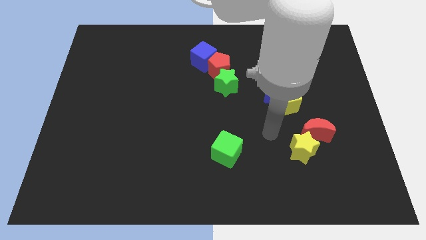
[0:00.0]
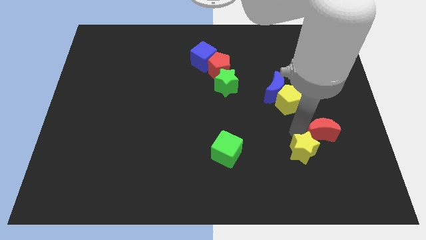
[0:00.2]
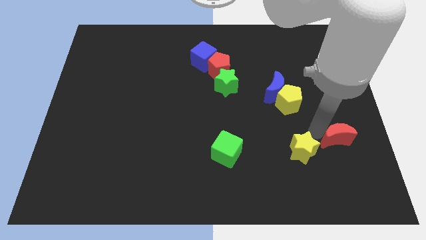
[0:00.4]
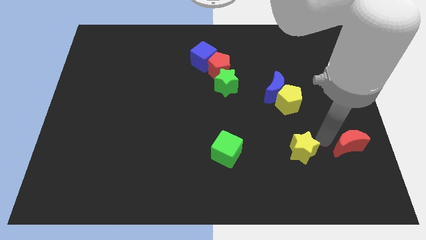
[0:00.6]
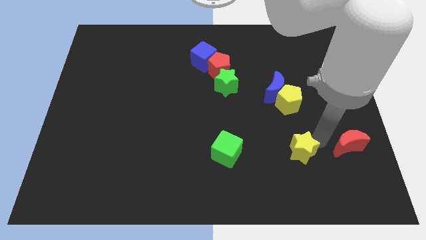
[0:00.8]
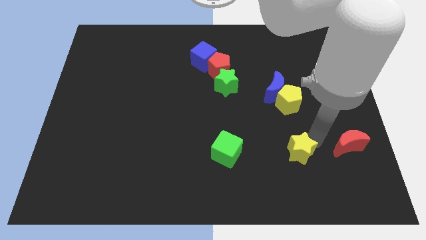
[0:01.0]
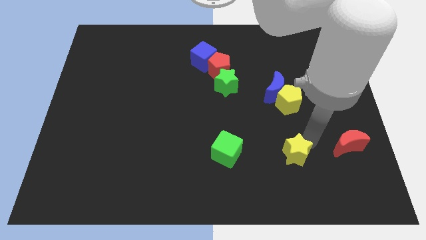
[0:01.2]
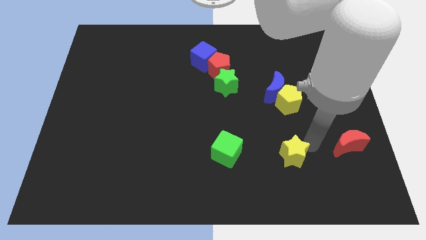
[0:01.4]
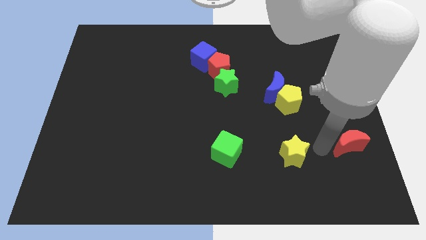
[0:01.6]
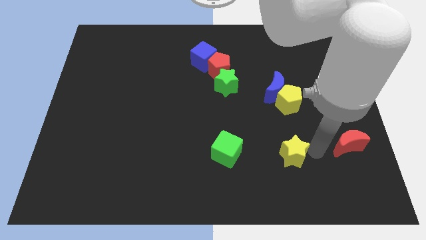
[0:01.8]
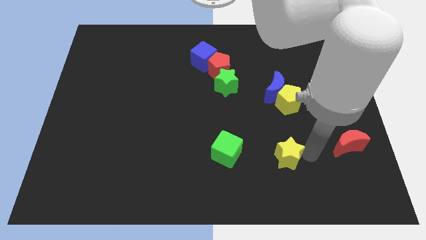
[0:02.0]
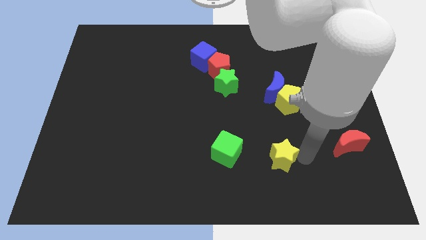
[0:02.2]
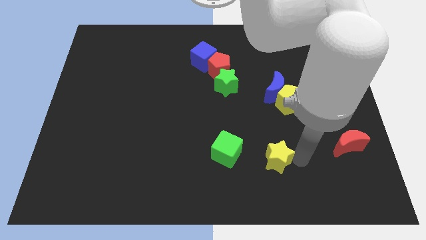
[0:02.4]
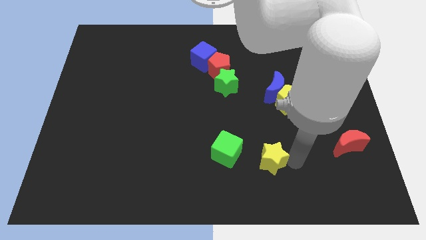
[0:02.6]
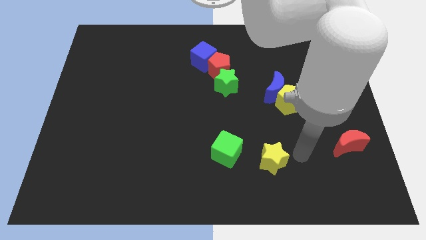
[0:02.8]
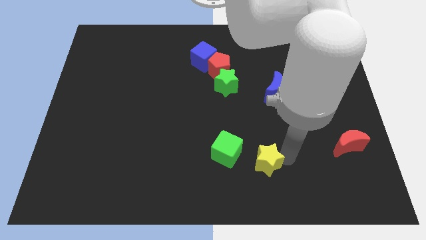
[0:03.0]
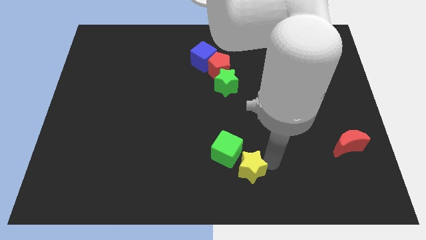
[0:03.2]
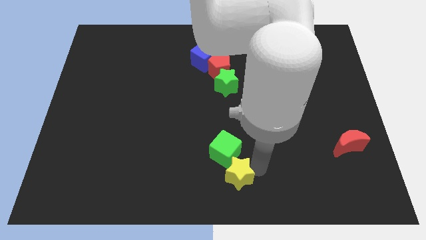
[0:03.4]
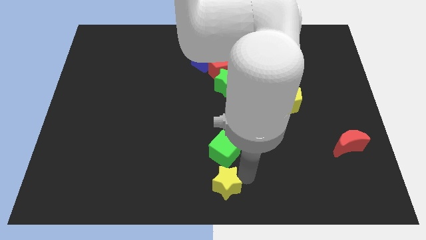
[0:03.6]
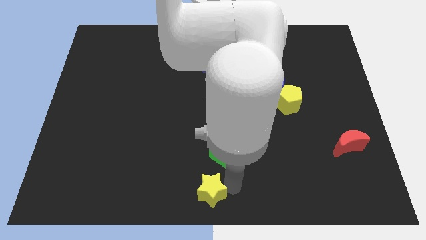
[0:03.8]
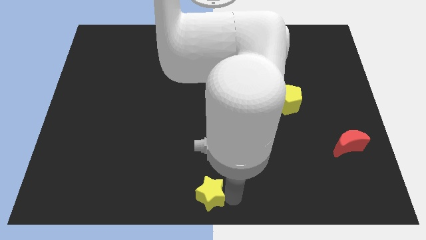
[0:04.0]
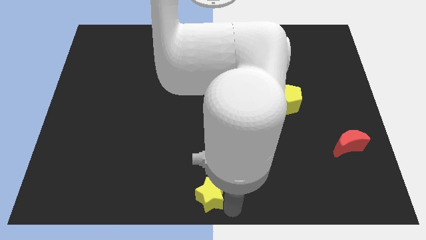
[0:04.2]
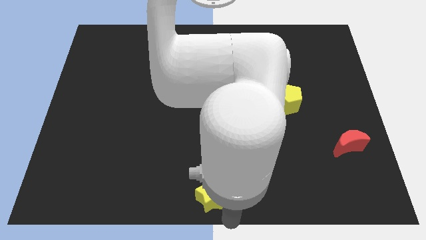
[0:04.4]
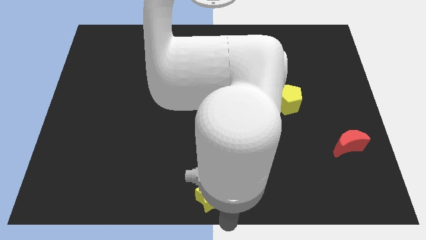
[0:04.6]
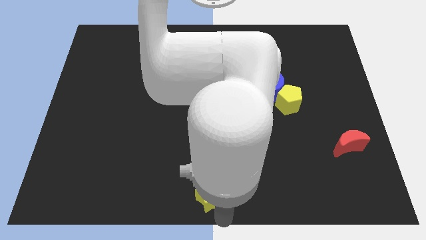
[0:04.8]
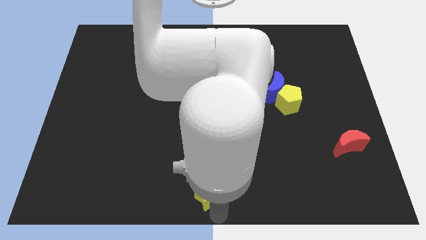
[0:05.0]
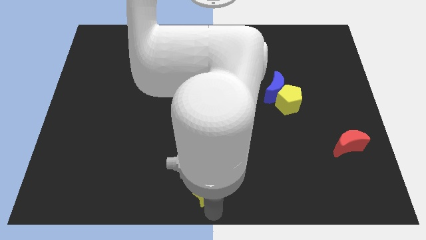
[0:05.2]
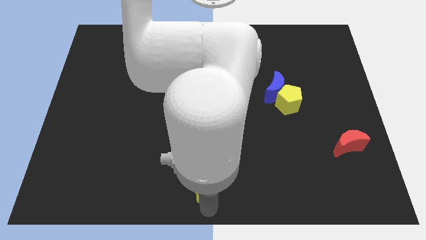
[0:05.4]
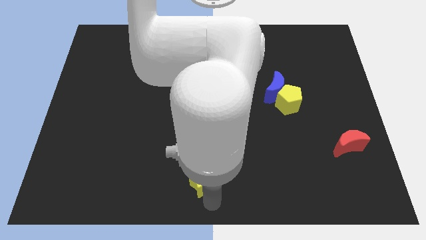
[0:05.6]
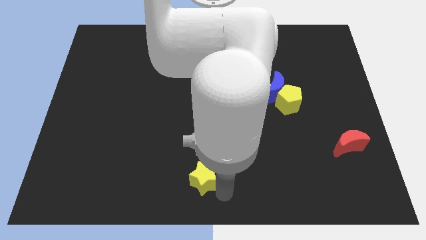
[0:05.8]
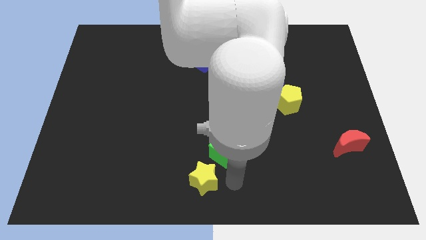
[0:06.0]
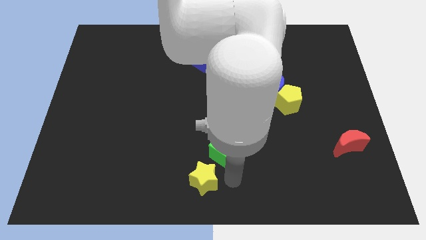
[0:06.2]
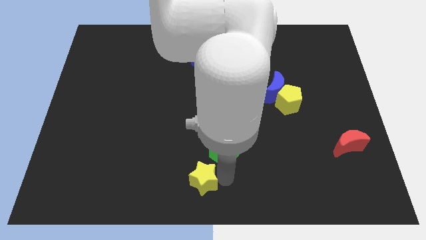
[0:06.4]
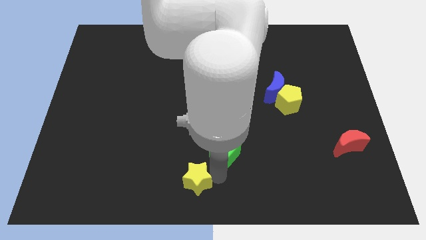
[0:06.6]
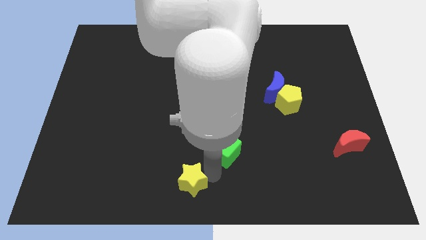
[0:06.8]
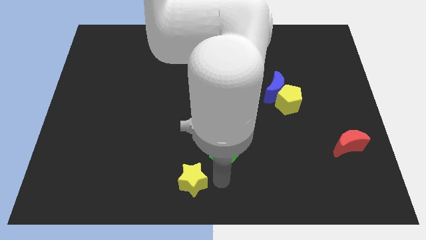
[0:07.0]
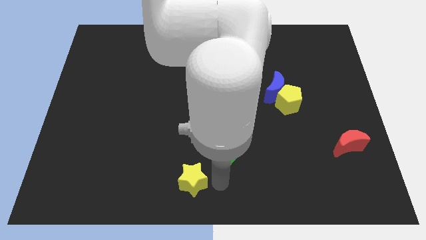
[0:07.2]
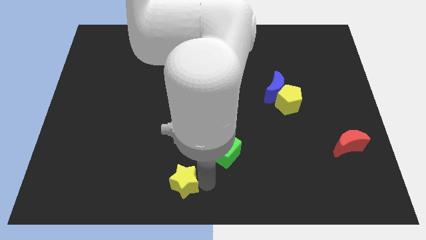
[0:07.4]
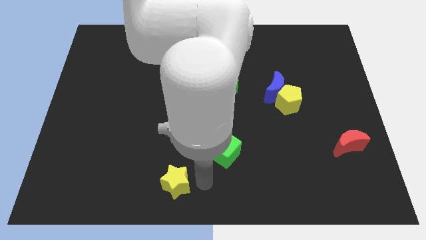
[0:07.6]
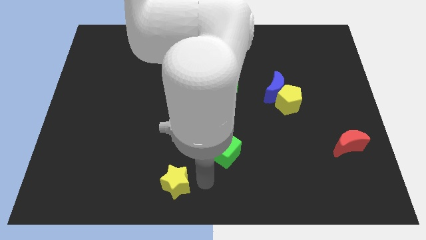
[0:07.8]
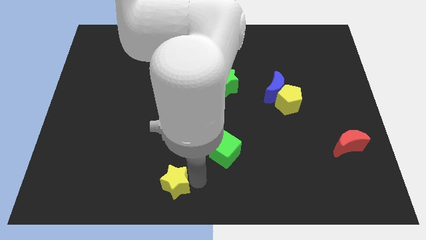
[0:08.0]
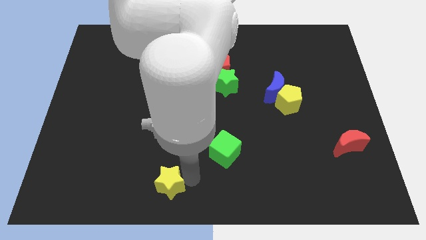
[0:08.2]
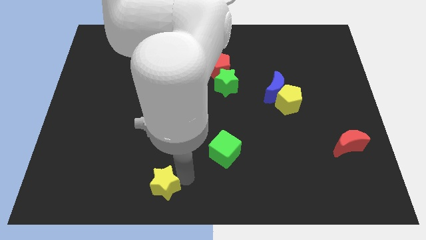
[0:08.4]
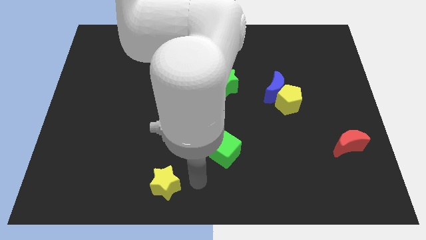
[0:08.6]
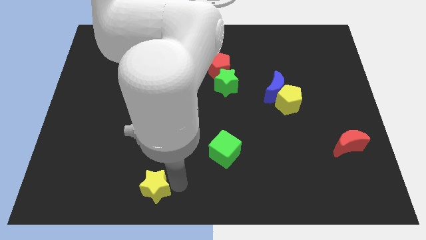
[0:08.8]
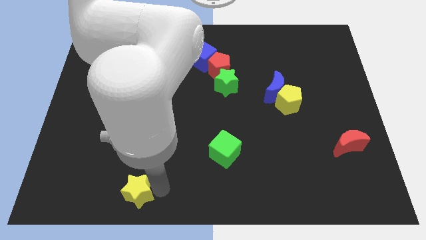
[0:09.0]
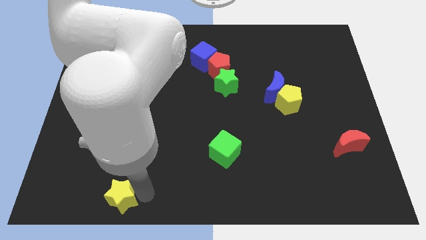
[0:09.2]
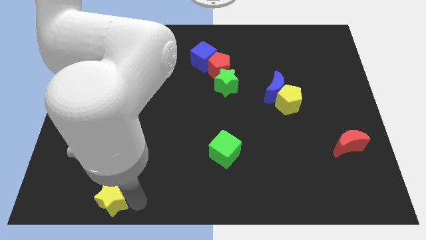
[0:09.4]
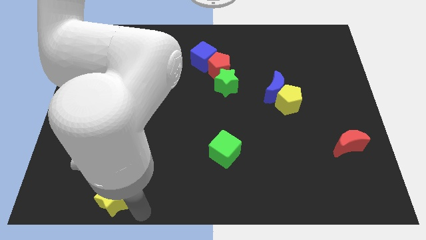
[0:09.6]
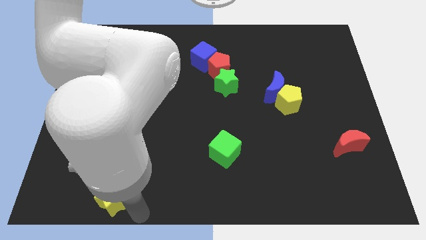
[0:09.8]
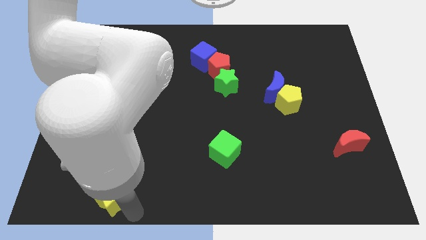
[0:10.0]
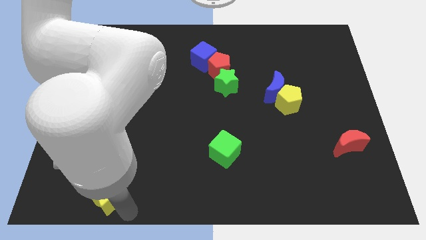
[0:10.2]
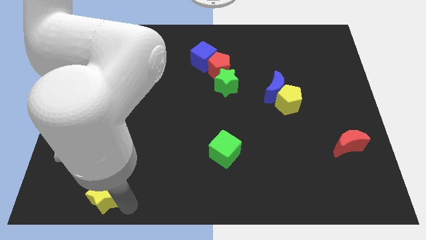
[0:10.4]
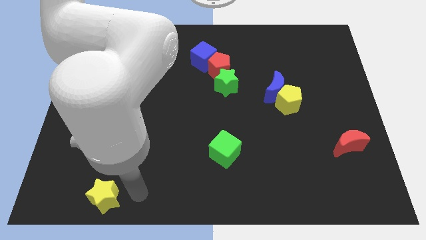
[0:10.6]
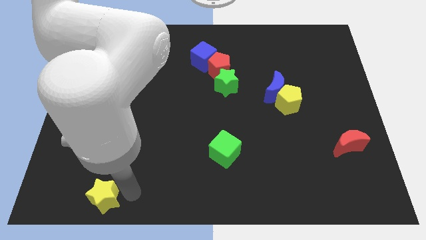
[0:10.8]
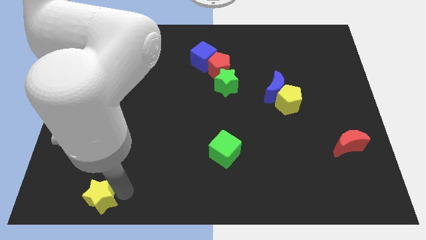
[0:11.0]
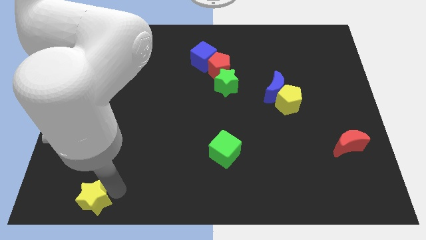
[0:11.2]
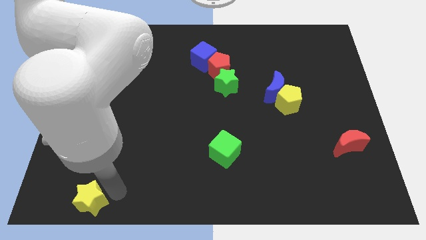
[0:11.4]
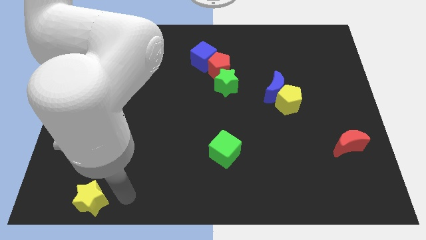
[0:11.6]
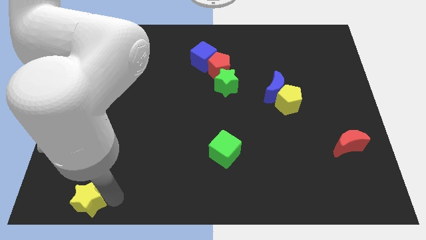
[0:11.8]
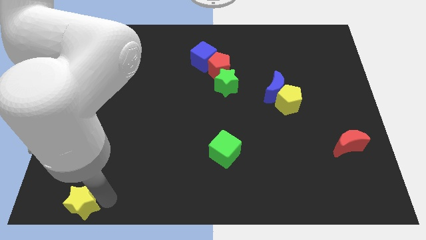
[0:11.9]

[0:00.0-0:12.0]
slide the yellow star to the lower left corner
